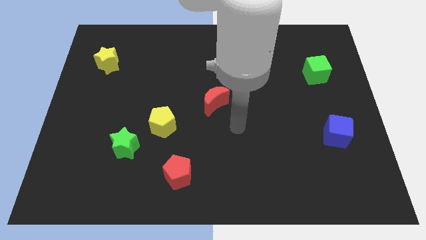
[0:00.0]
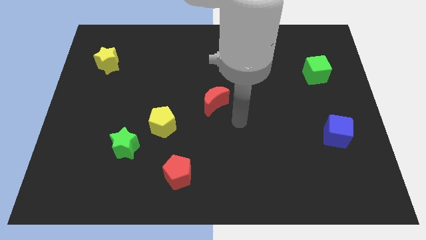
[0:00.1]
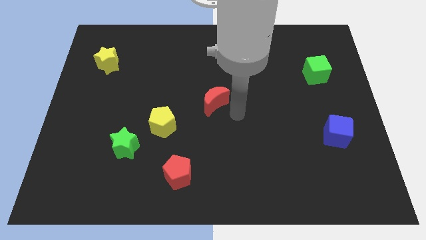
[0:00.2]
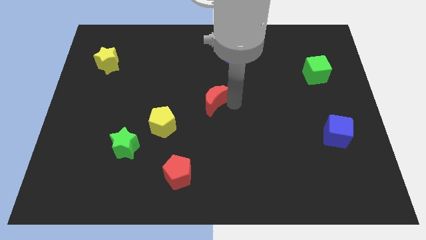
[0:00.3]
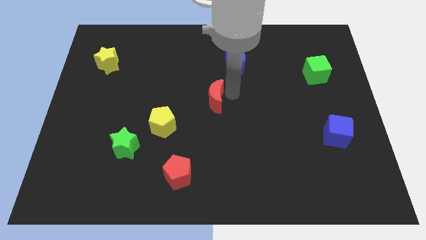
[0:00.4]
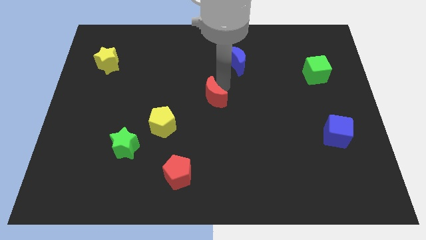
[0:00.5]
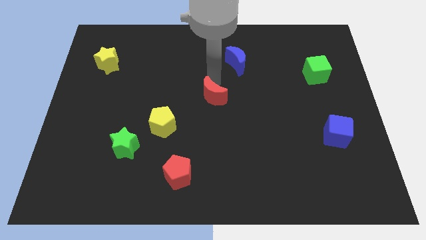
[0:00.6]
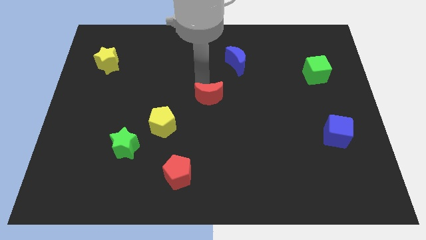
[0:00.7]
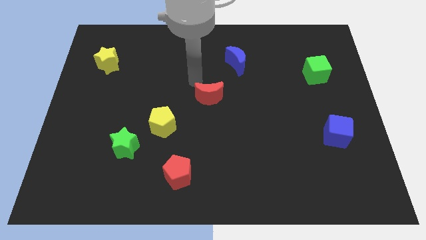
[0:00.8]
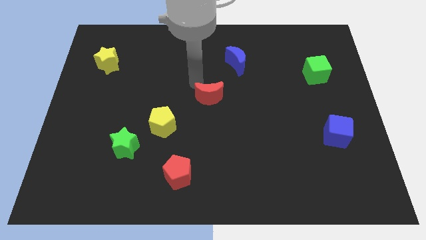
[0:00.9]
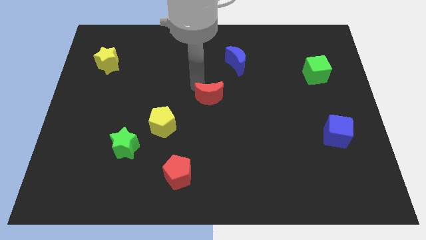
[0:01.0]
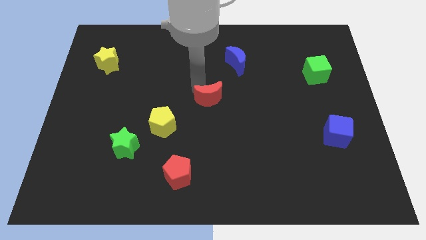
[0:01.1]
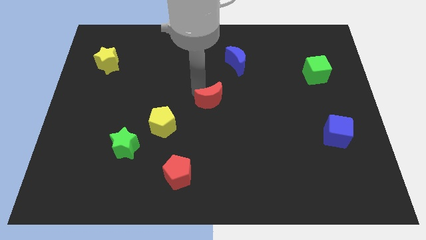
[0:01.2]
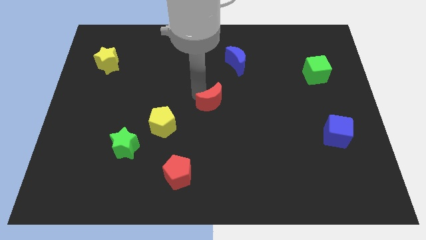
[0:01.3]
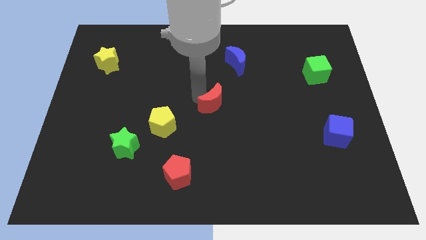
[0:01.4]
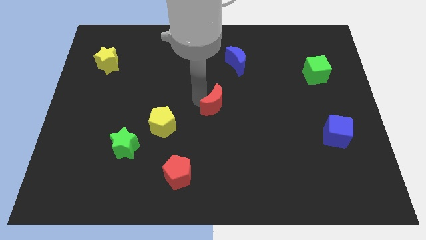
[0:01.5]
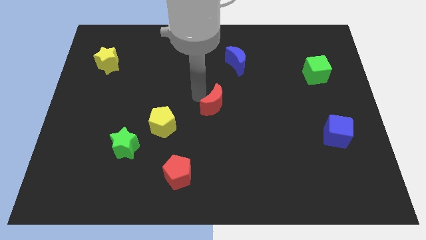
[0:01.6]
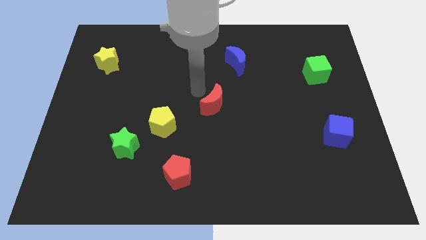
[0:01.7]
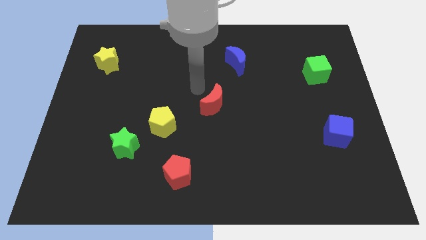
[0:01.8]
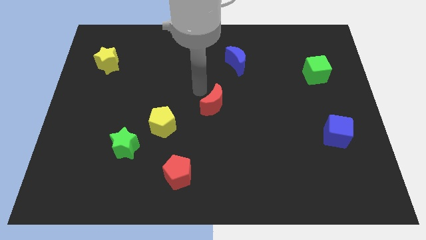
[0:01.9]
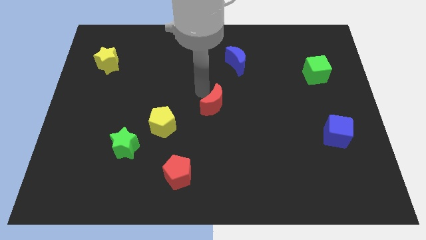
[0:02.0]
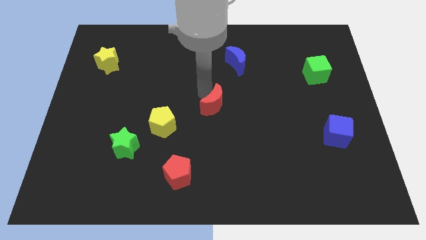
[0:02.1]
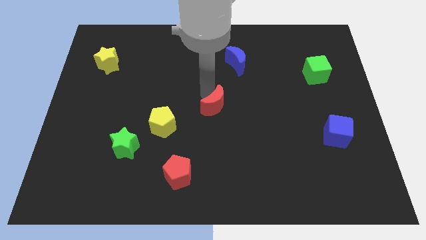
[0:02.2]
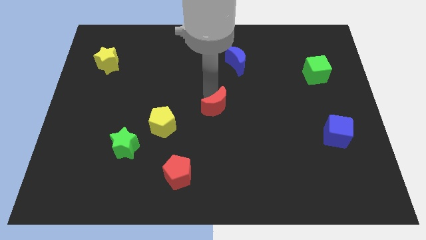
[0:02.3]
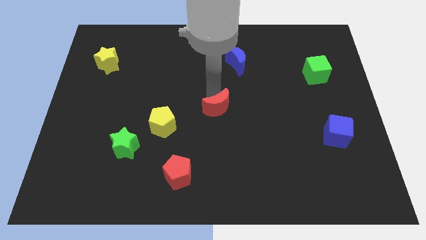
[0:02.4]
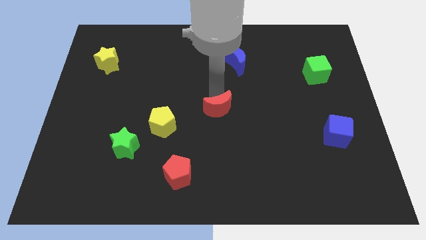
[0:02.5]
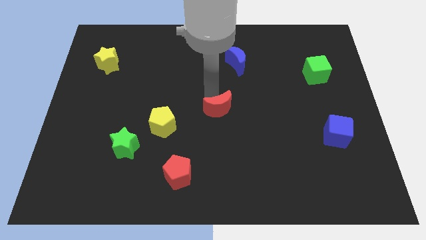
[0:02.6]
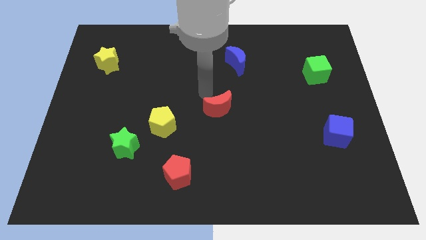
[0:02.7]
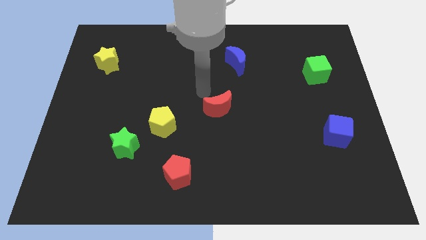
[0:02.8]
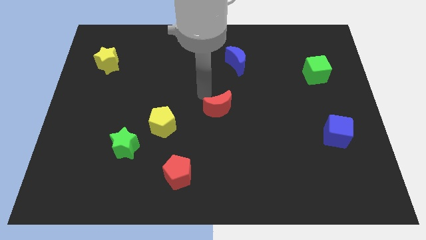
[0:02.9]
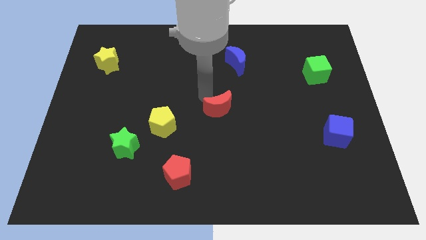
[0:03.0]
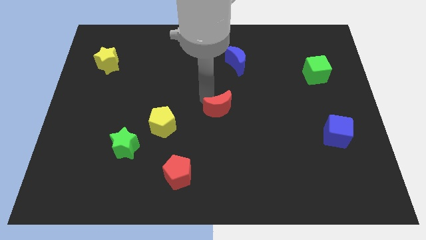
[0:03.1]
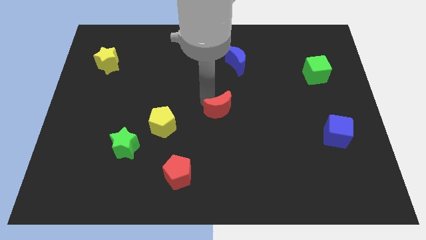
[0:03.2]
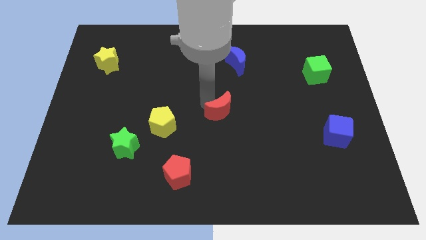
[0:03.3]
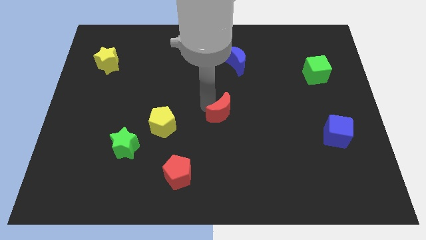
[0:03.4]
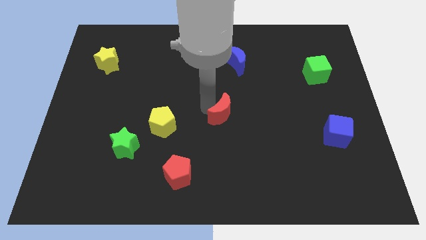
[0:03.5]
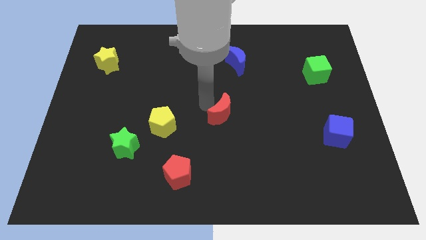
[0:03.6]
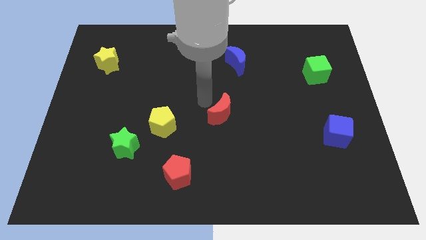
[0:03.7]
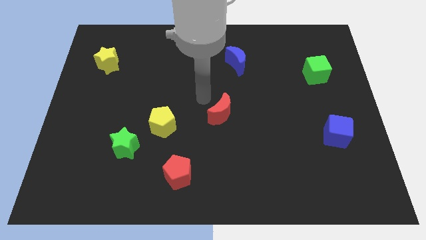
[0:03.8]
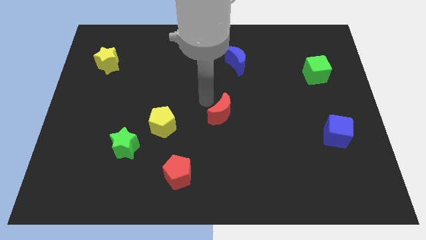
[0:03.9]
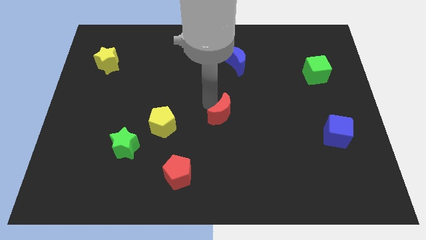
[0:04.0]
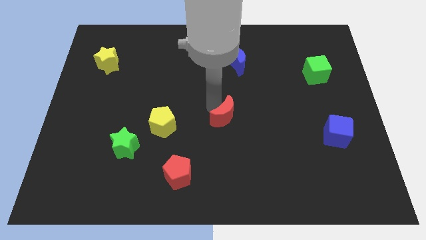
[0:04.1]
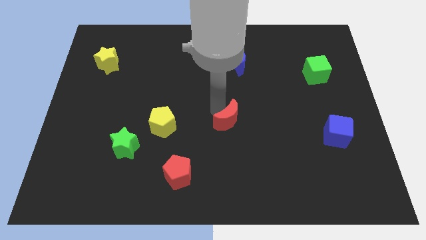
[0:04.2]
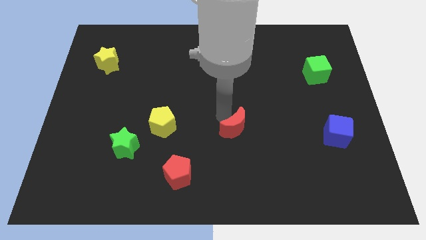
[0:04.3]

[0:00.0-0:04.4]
push the red moon downwards and then to the right a bit

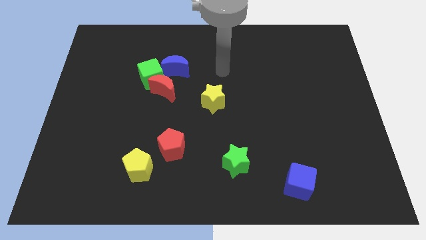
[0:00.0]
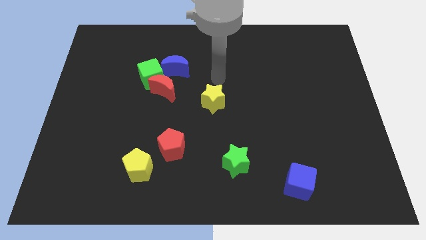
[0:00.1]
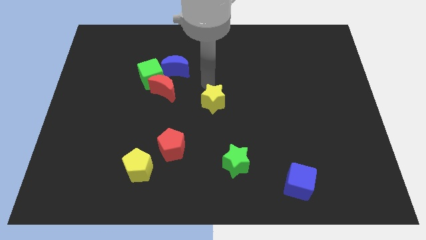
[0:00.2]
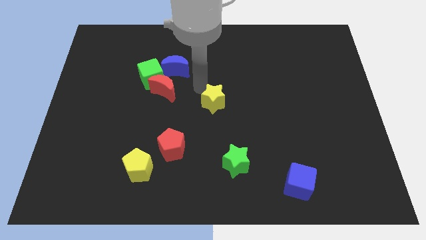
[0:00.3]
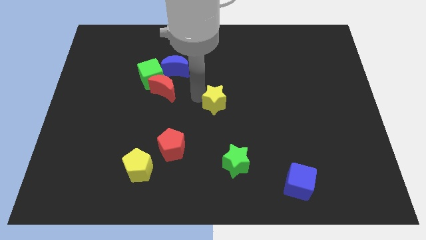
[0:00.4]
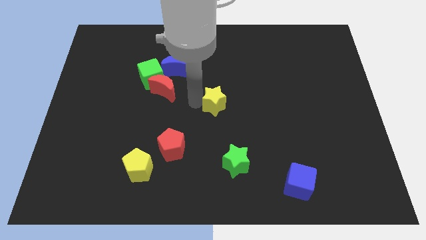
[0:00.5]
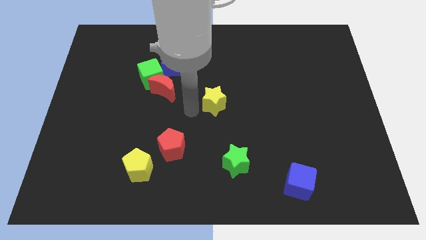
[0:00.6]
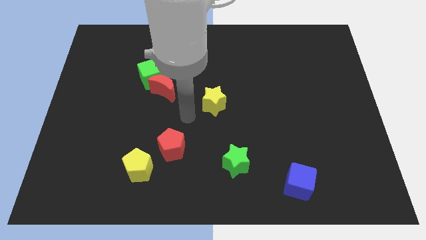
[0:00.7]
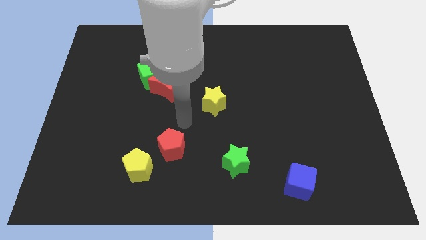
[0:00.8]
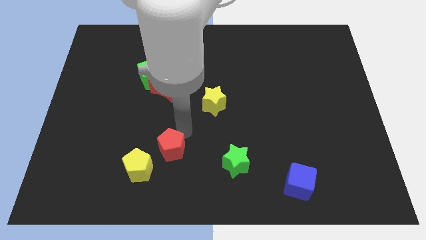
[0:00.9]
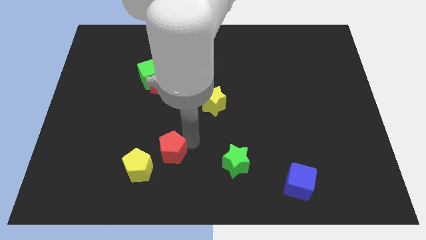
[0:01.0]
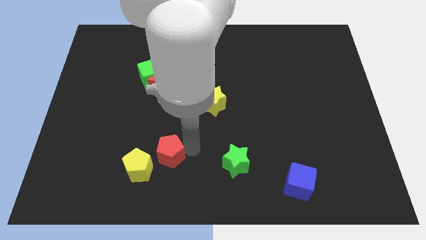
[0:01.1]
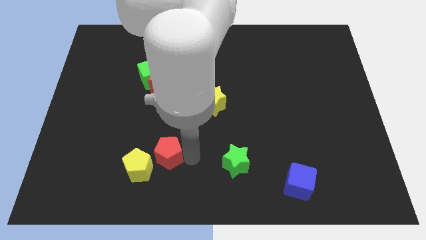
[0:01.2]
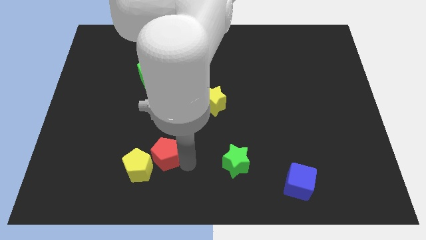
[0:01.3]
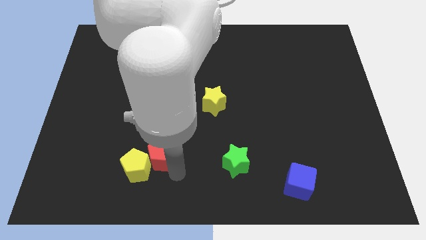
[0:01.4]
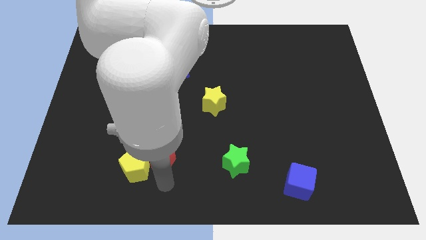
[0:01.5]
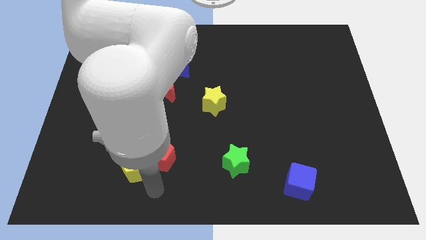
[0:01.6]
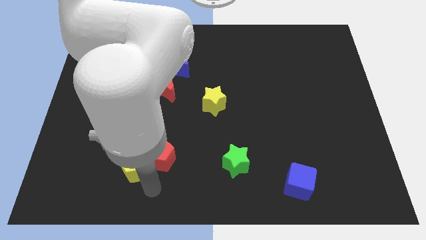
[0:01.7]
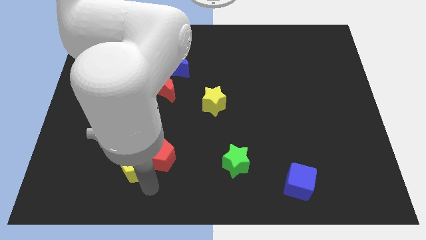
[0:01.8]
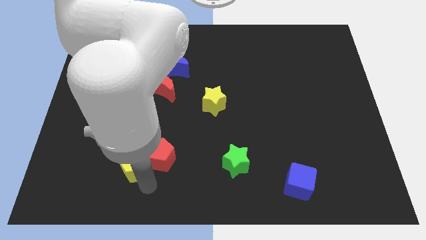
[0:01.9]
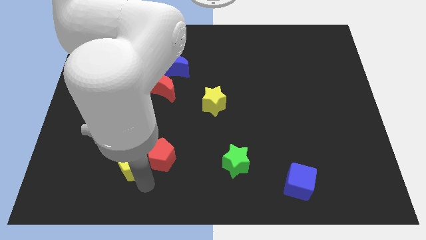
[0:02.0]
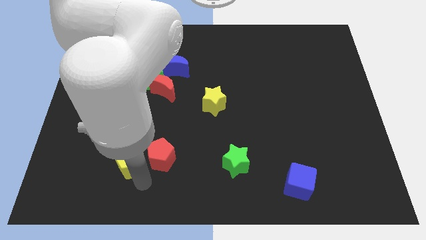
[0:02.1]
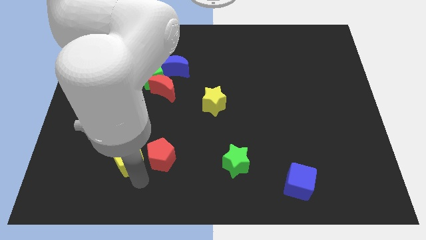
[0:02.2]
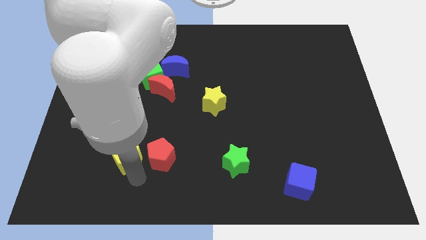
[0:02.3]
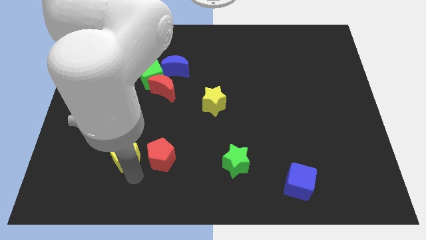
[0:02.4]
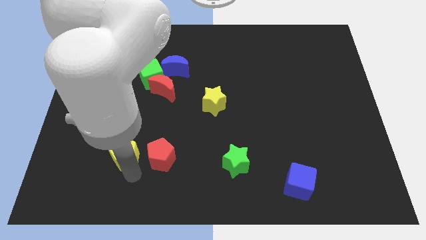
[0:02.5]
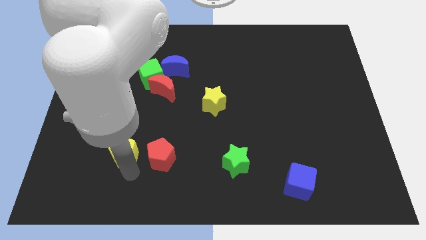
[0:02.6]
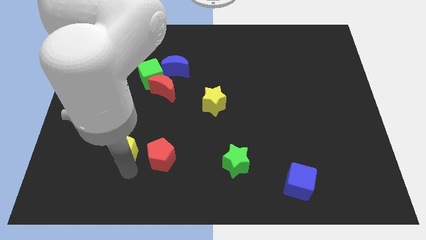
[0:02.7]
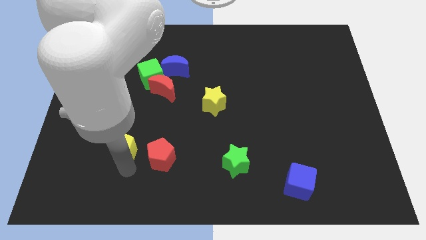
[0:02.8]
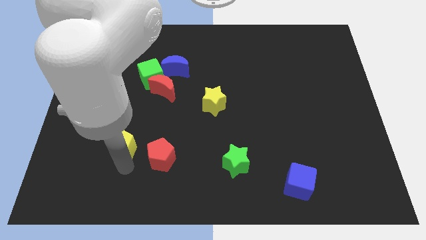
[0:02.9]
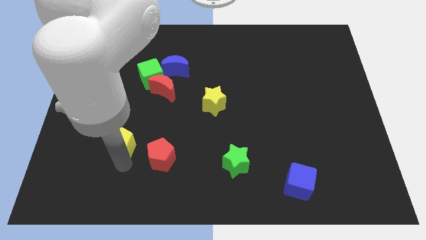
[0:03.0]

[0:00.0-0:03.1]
move the yellow pentagon slightly up and then left

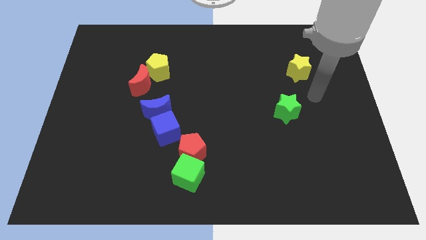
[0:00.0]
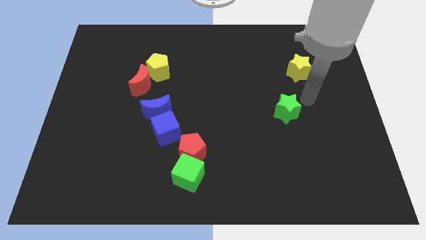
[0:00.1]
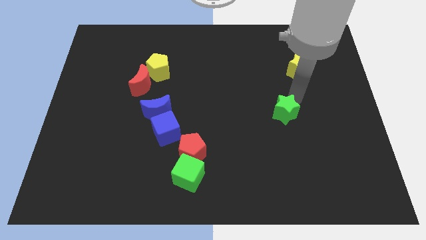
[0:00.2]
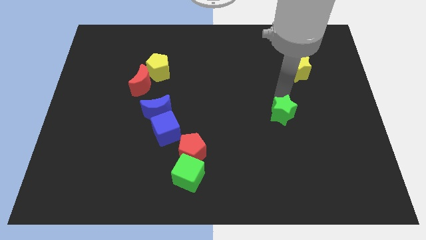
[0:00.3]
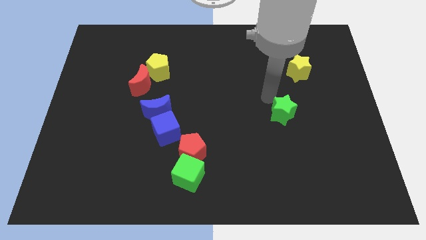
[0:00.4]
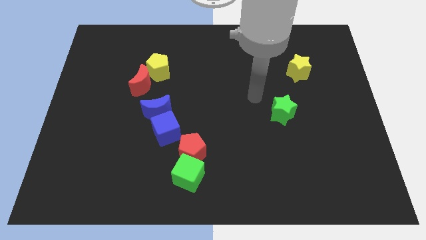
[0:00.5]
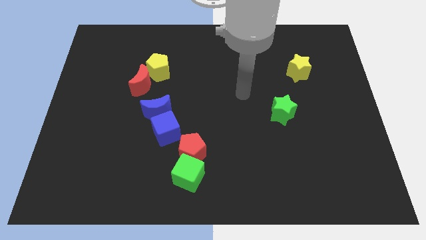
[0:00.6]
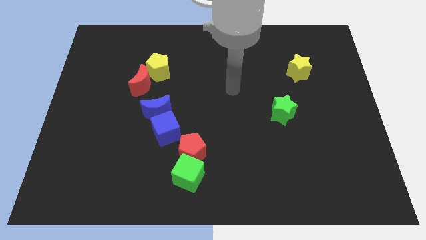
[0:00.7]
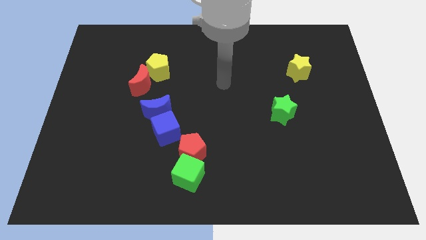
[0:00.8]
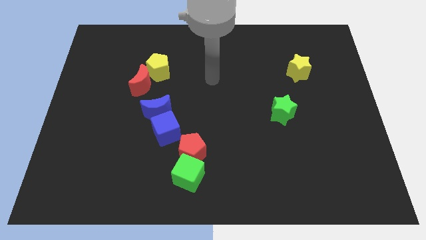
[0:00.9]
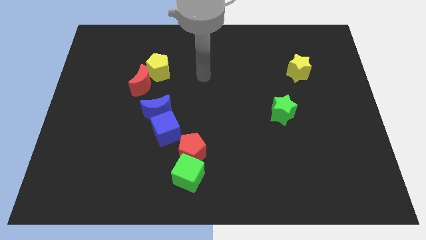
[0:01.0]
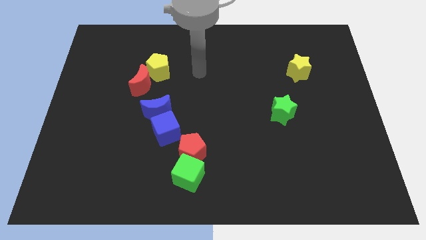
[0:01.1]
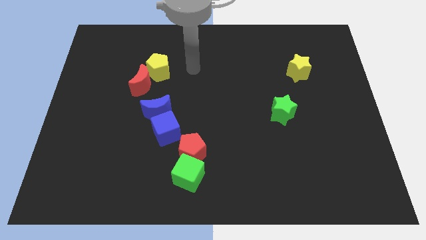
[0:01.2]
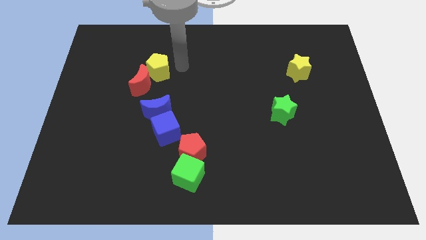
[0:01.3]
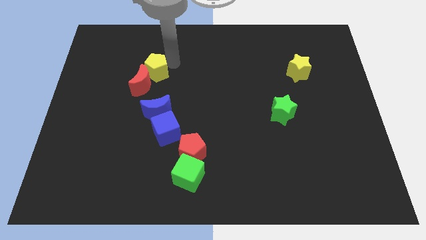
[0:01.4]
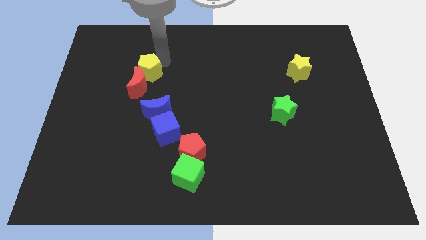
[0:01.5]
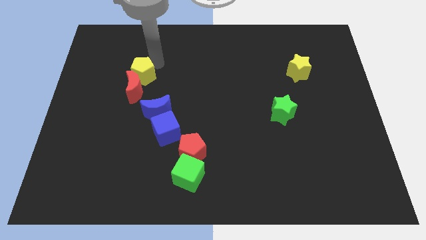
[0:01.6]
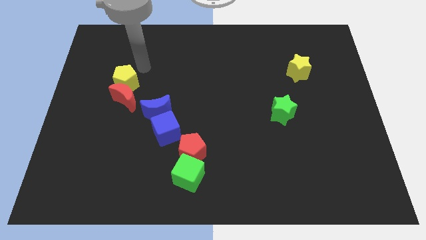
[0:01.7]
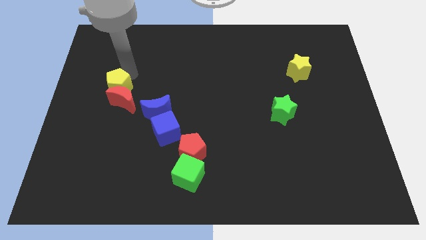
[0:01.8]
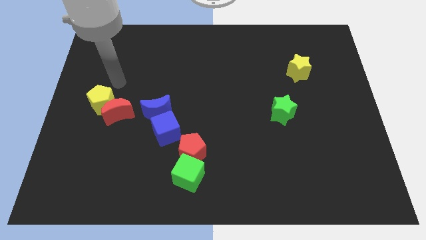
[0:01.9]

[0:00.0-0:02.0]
slightly push the red moon down
